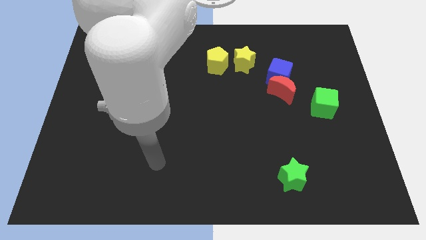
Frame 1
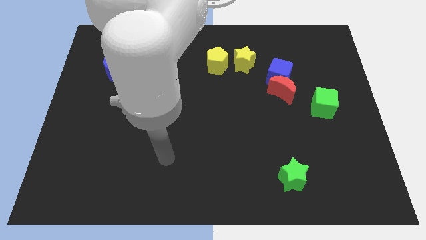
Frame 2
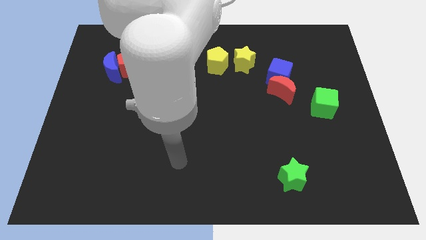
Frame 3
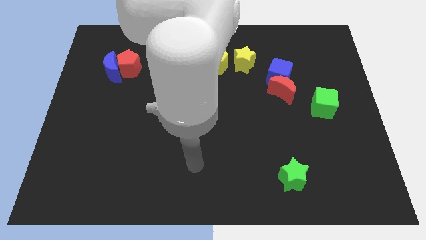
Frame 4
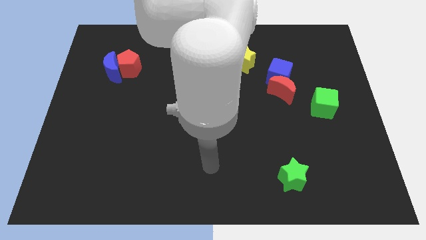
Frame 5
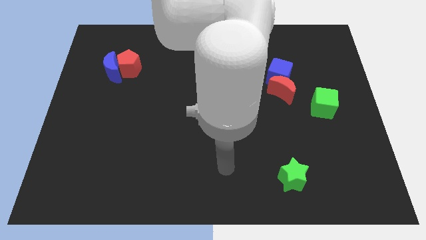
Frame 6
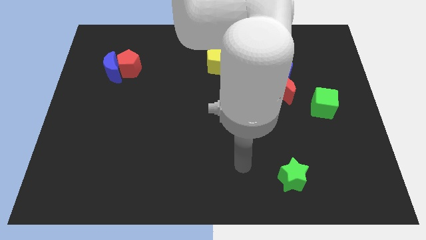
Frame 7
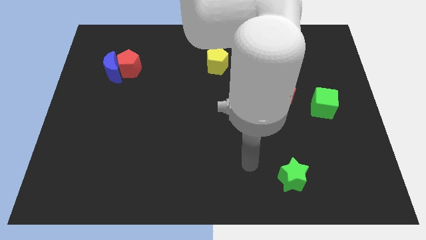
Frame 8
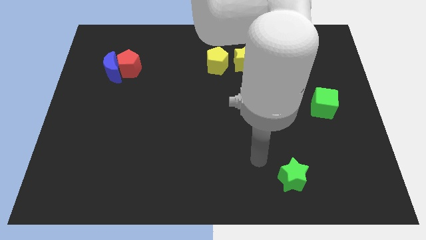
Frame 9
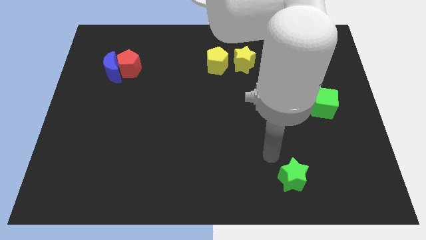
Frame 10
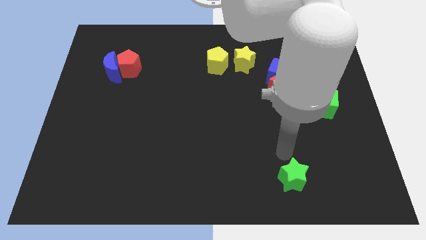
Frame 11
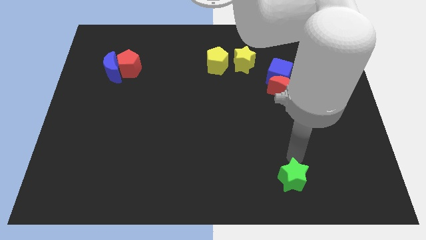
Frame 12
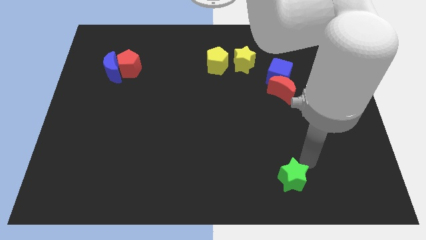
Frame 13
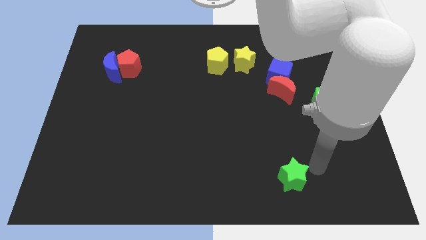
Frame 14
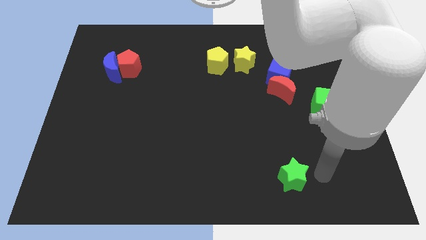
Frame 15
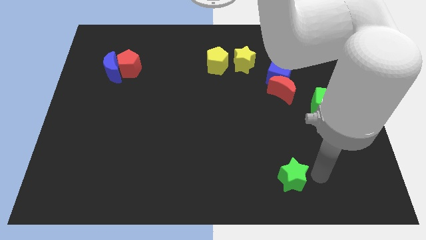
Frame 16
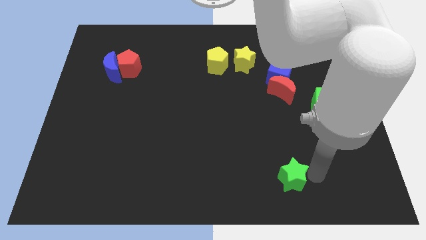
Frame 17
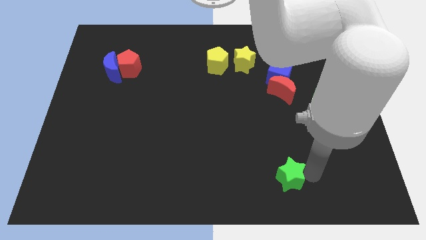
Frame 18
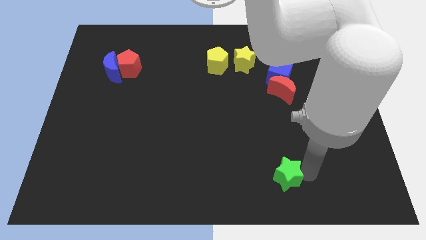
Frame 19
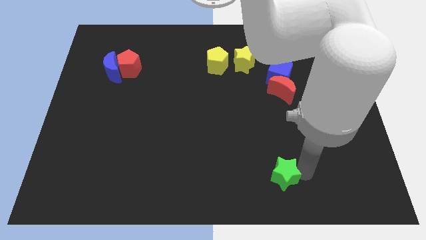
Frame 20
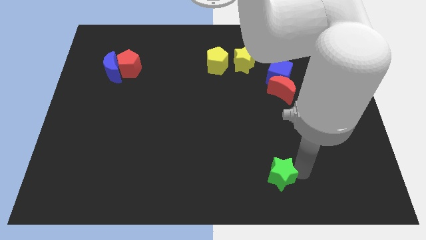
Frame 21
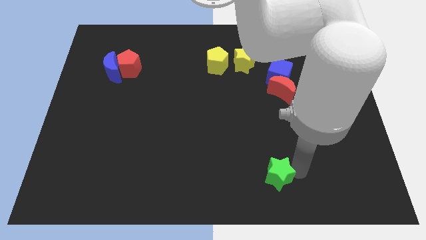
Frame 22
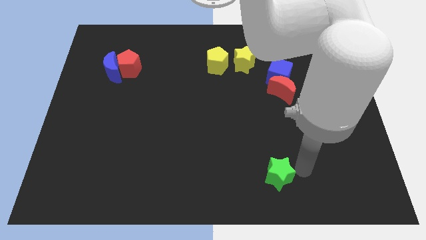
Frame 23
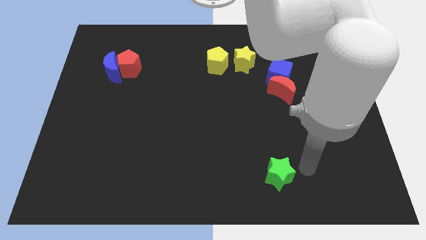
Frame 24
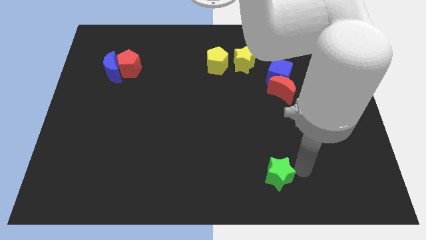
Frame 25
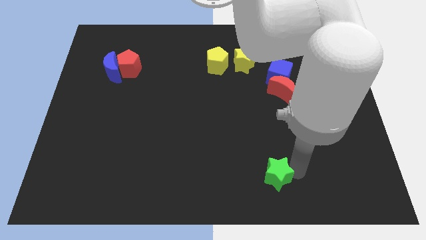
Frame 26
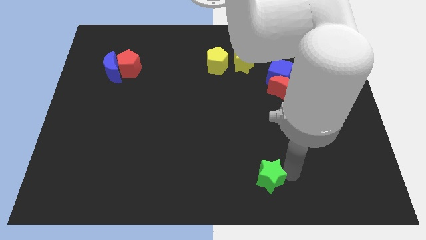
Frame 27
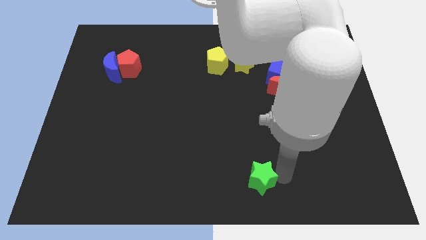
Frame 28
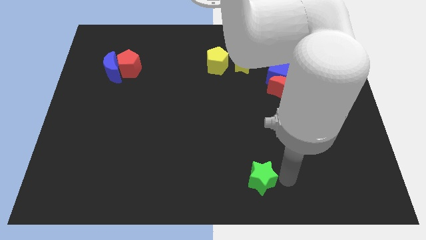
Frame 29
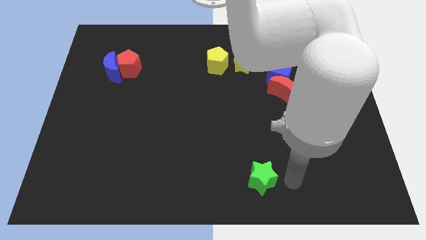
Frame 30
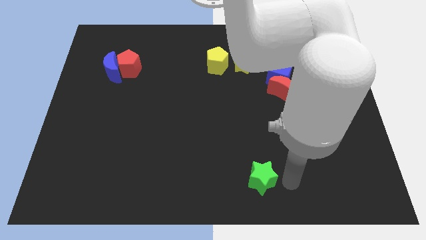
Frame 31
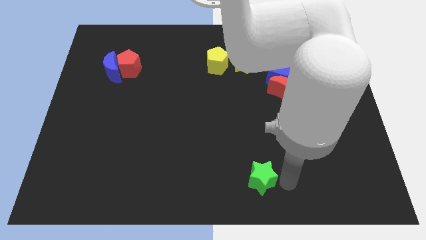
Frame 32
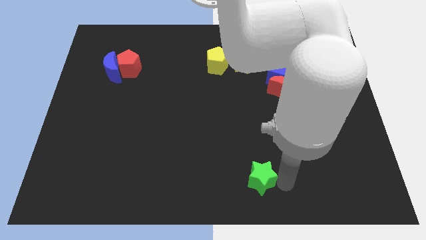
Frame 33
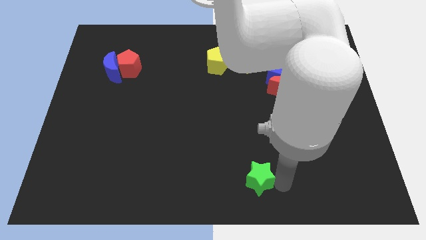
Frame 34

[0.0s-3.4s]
push the green star to the left somewhat

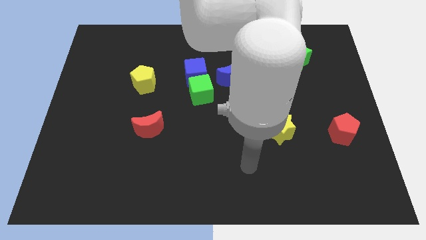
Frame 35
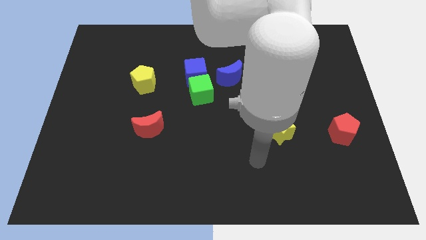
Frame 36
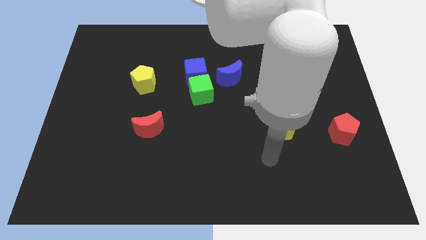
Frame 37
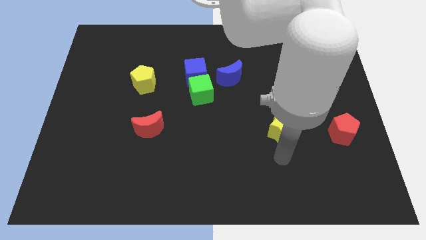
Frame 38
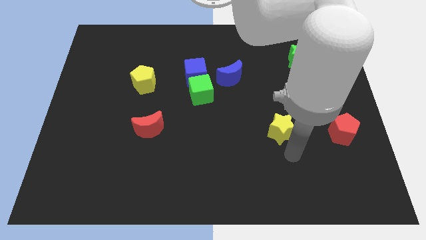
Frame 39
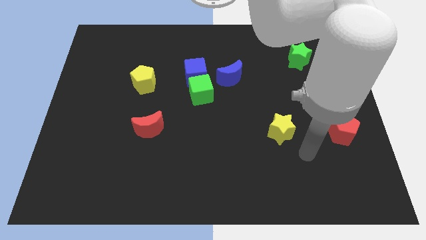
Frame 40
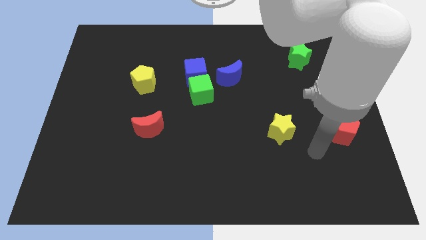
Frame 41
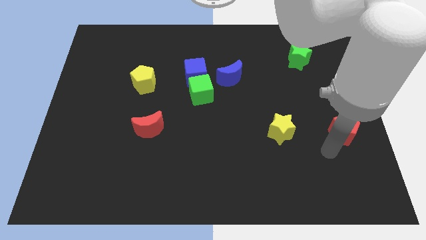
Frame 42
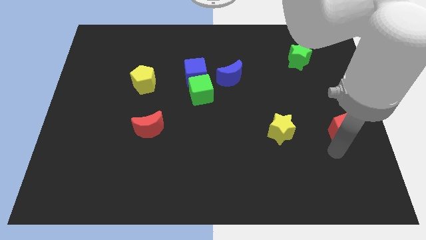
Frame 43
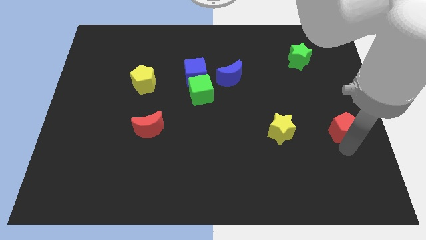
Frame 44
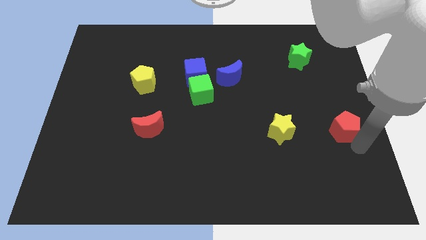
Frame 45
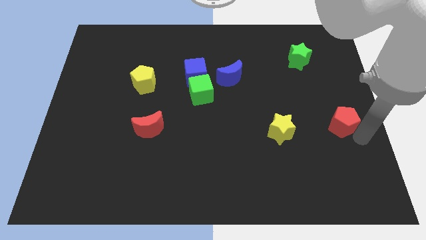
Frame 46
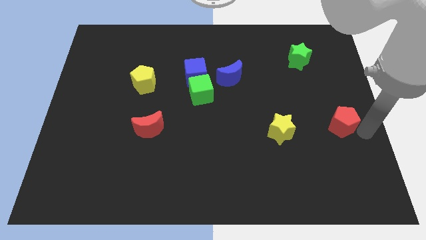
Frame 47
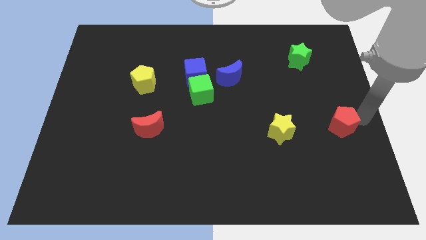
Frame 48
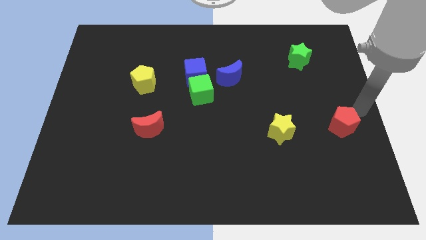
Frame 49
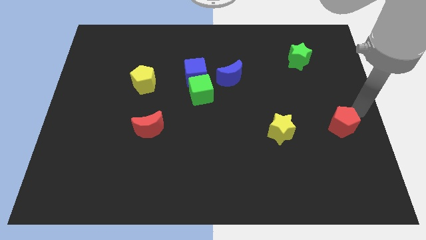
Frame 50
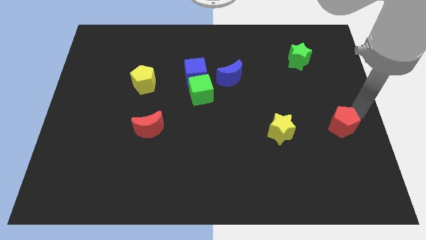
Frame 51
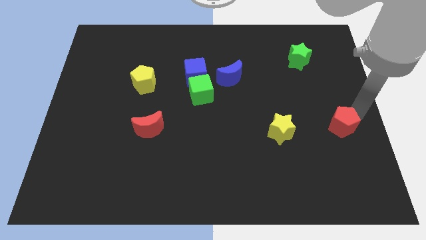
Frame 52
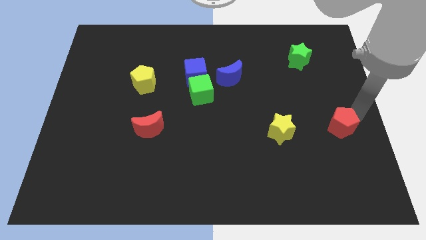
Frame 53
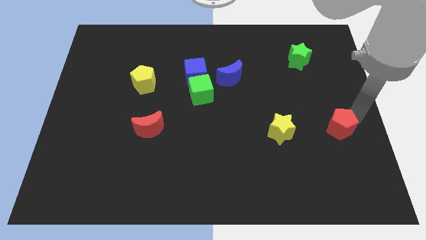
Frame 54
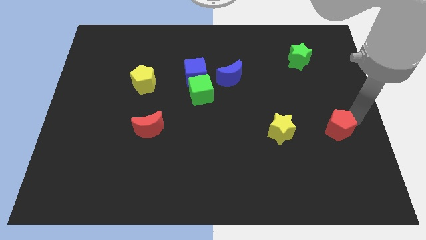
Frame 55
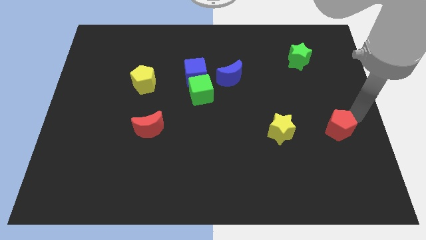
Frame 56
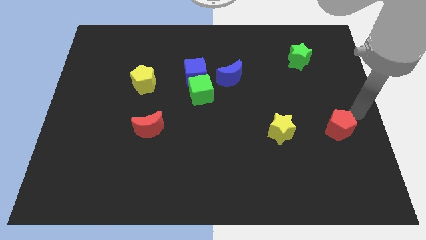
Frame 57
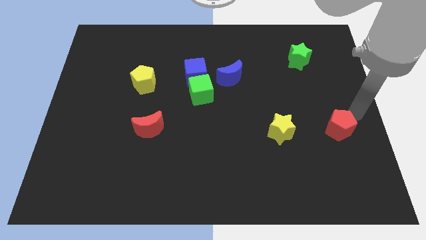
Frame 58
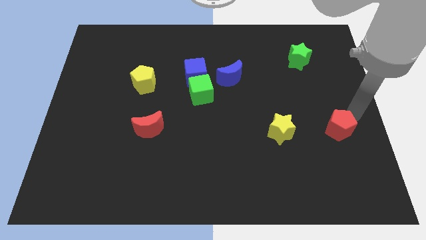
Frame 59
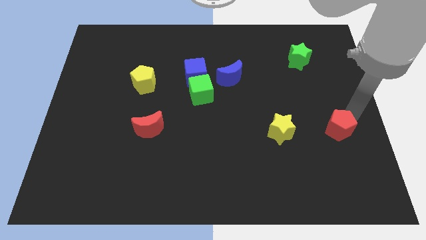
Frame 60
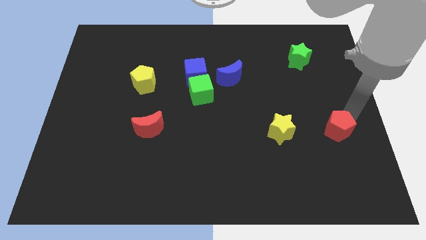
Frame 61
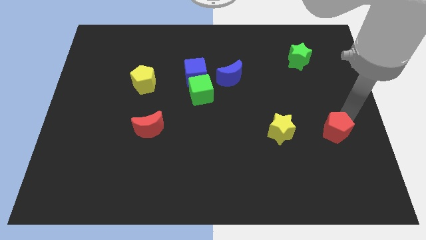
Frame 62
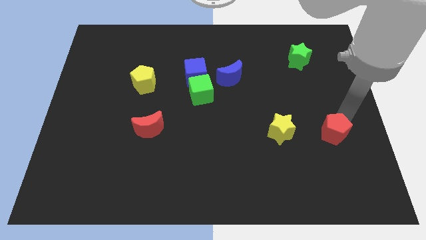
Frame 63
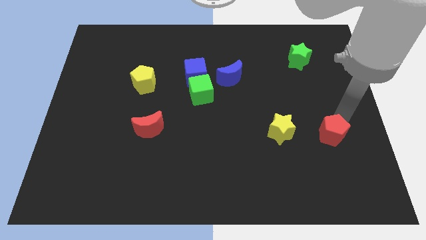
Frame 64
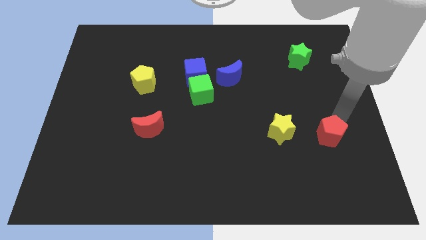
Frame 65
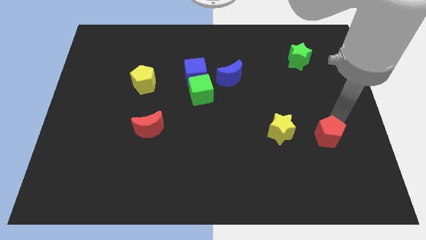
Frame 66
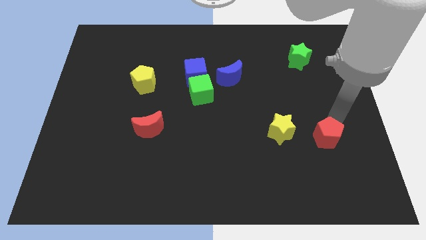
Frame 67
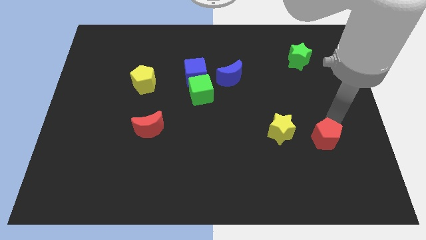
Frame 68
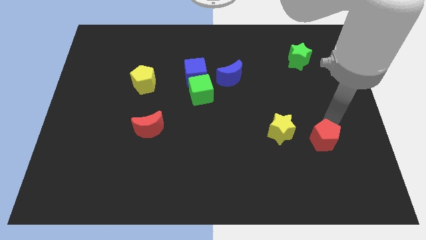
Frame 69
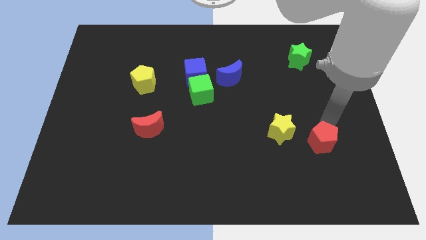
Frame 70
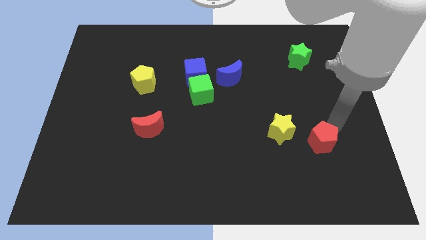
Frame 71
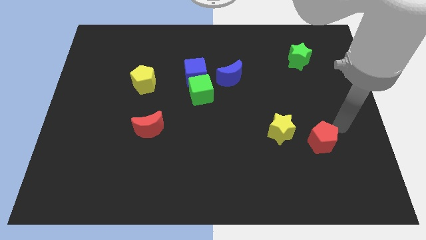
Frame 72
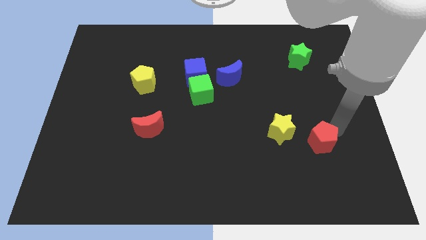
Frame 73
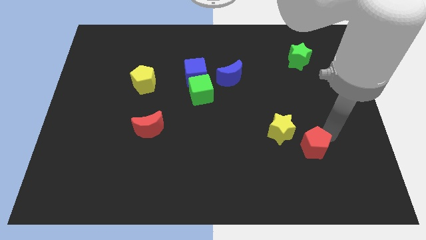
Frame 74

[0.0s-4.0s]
move the red pentagon a bit to the left

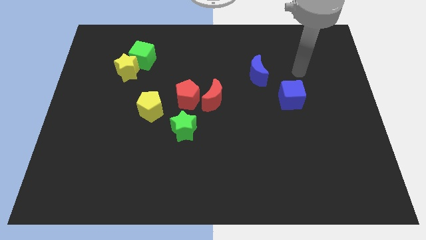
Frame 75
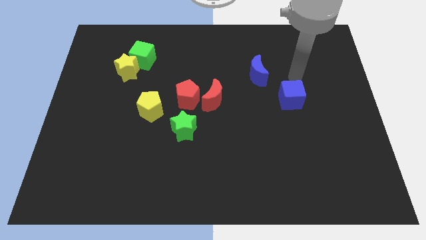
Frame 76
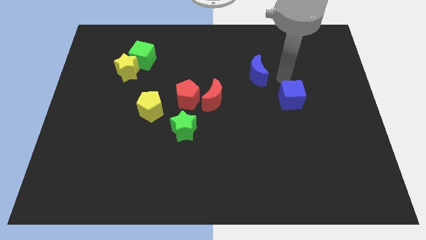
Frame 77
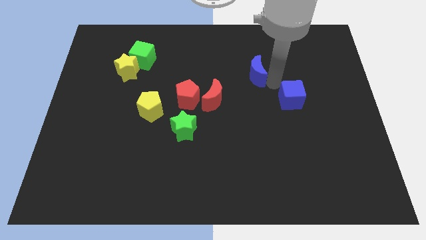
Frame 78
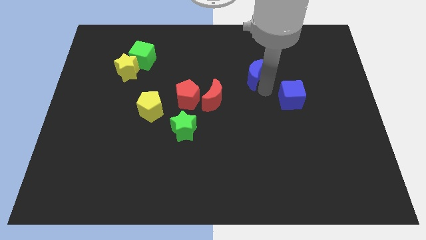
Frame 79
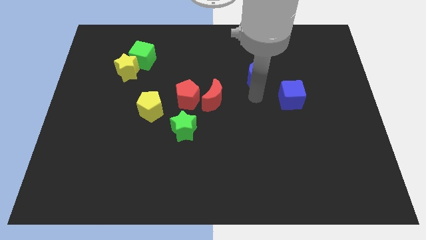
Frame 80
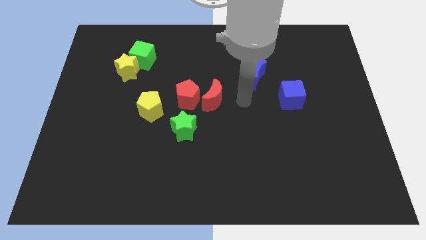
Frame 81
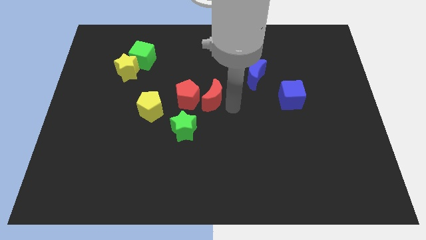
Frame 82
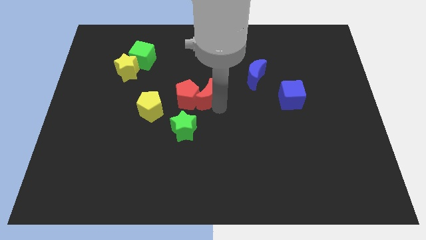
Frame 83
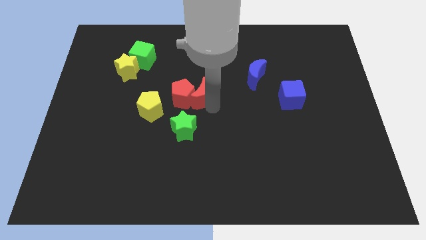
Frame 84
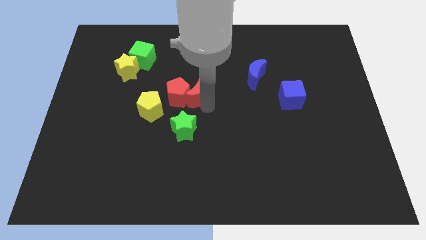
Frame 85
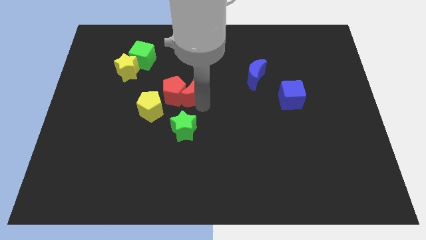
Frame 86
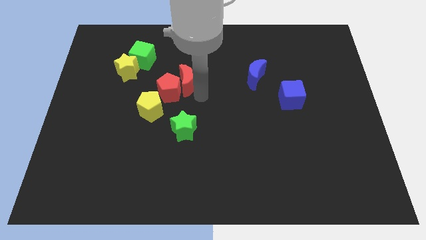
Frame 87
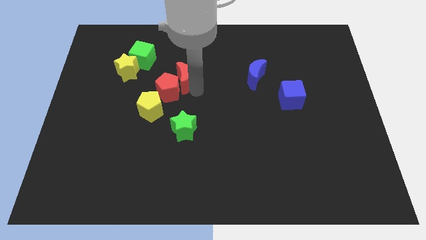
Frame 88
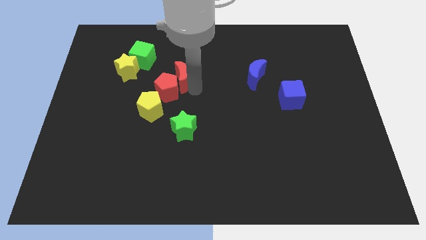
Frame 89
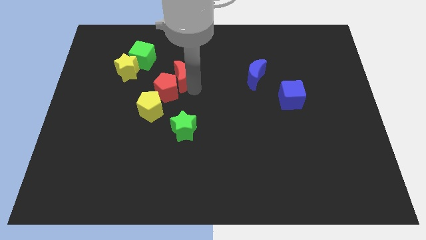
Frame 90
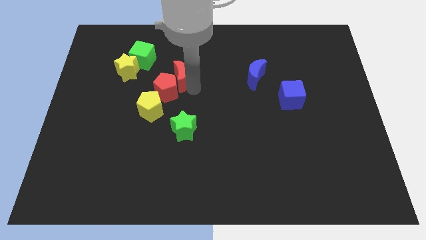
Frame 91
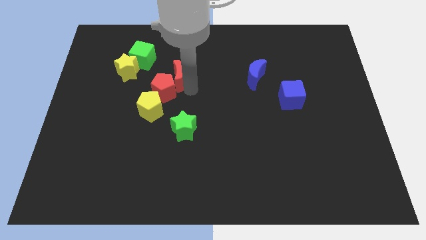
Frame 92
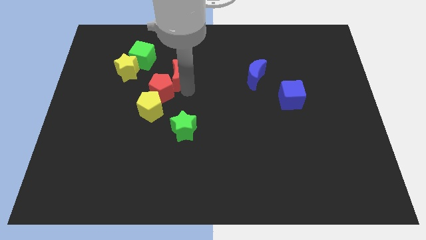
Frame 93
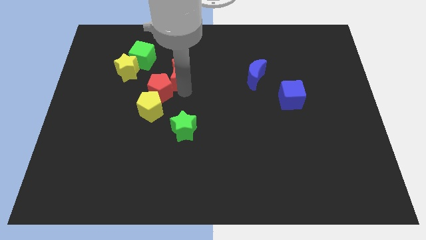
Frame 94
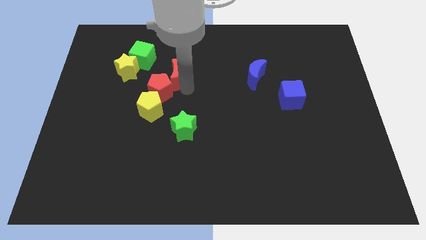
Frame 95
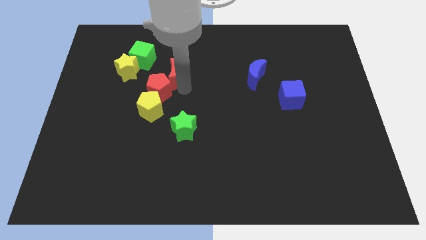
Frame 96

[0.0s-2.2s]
push the red pentagon somewhat left
